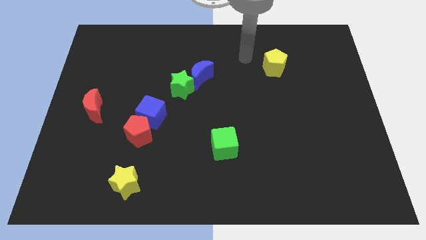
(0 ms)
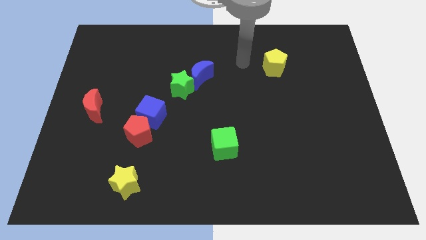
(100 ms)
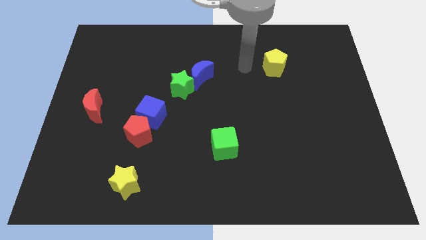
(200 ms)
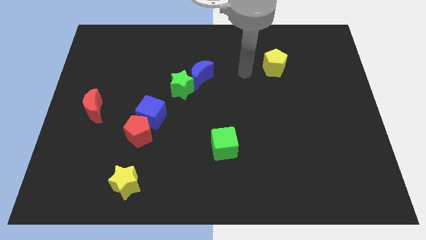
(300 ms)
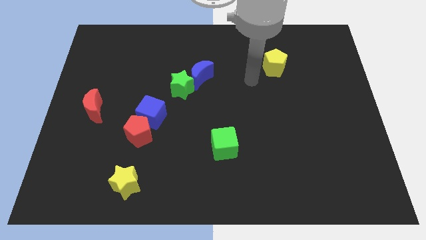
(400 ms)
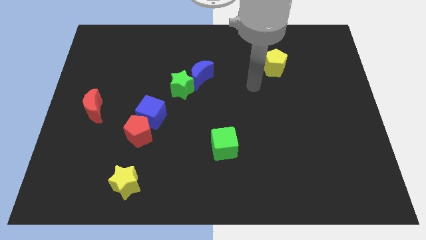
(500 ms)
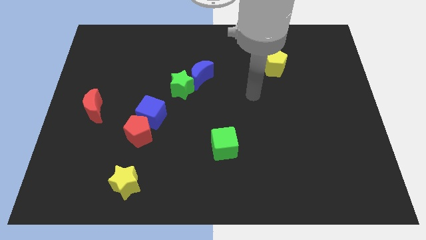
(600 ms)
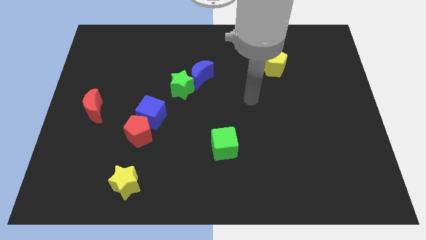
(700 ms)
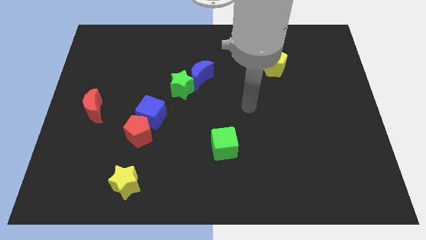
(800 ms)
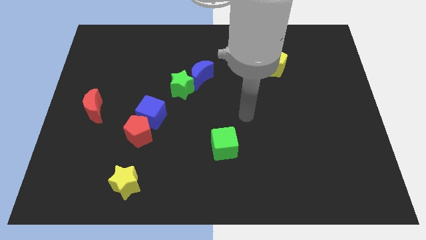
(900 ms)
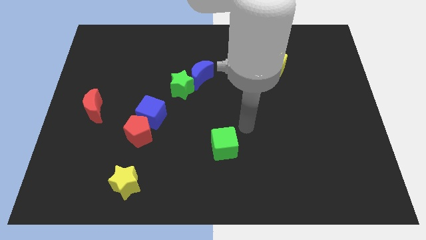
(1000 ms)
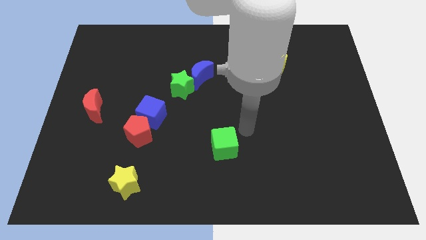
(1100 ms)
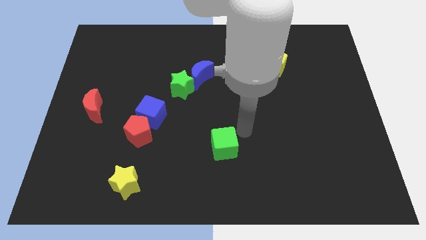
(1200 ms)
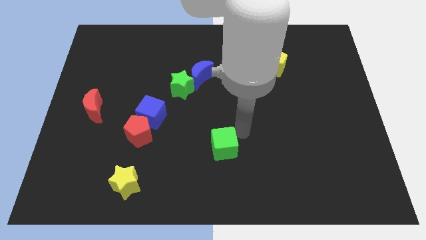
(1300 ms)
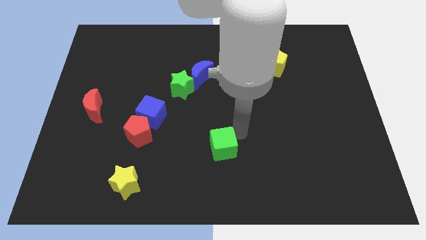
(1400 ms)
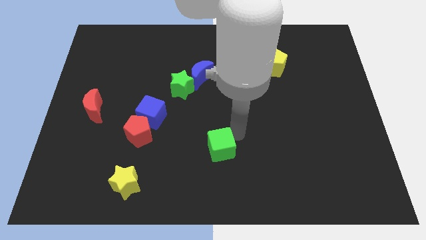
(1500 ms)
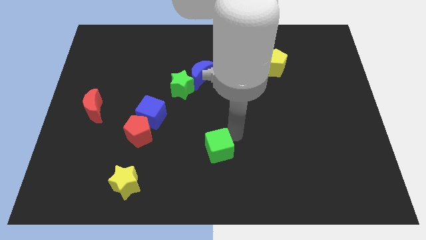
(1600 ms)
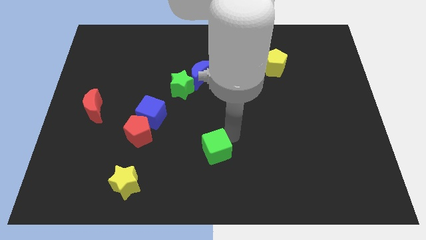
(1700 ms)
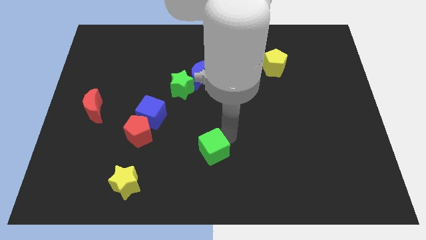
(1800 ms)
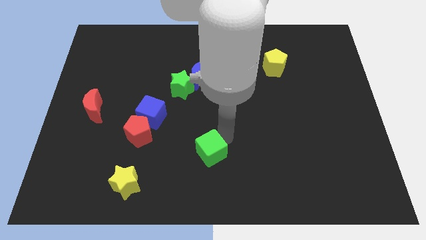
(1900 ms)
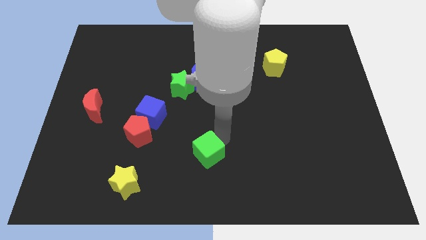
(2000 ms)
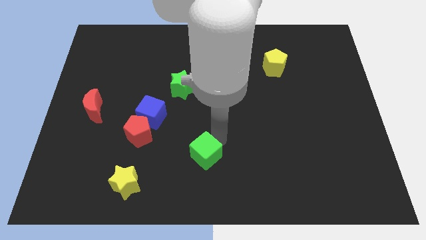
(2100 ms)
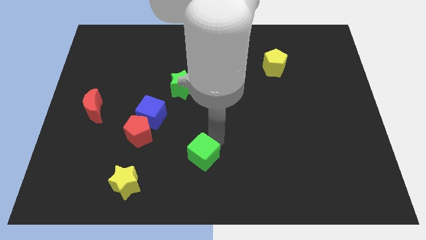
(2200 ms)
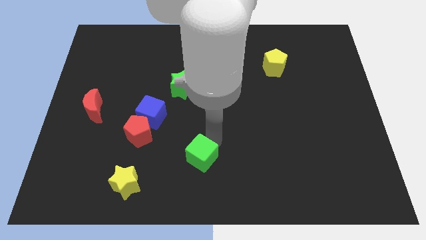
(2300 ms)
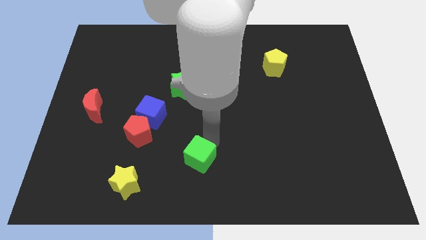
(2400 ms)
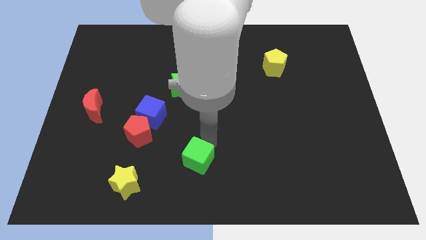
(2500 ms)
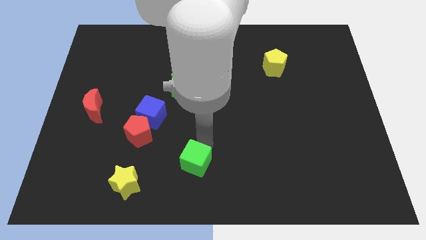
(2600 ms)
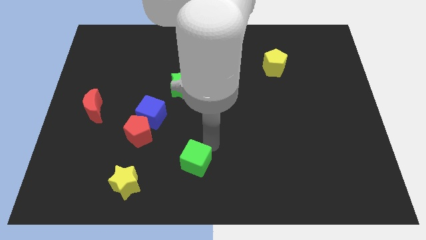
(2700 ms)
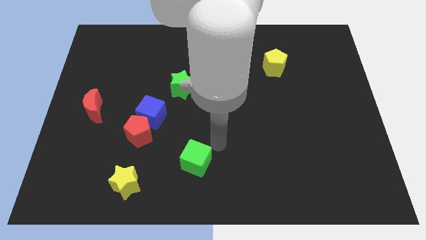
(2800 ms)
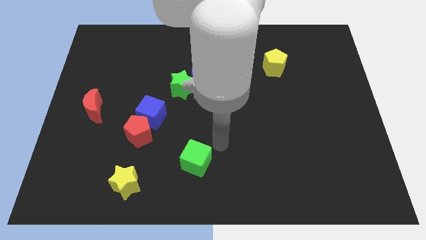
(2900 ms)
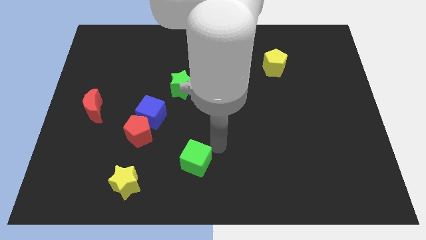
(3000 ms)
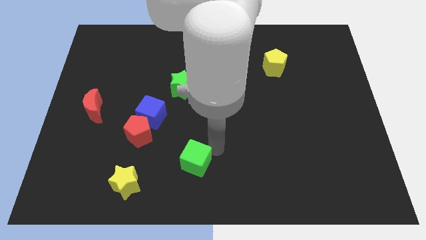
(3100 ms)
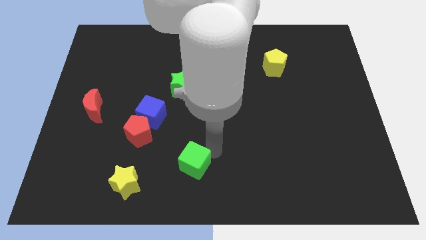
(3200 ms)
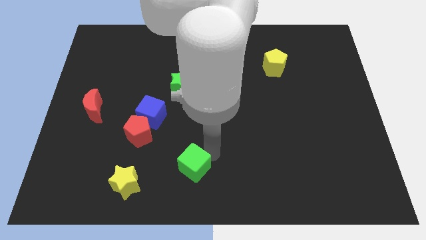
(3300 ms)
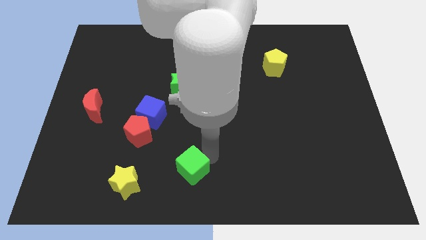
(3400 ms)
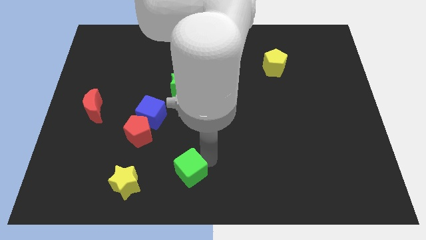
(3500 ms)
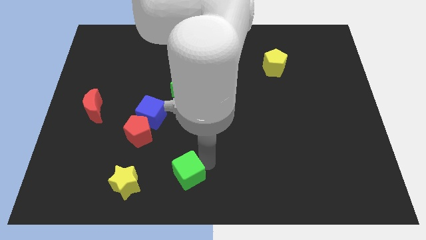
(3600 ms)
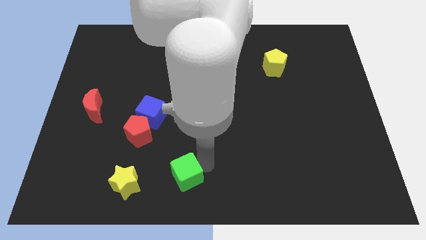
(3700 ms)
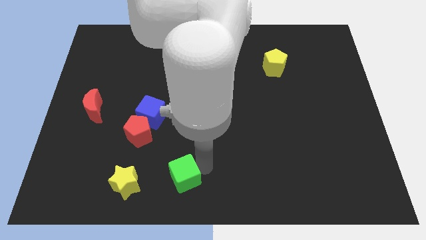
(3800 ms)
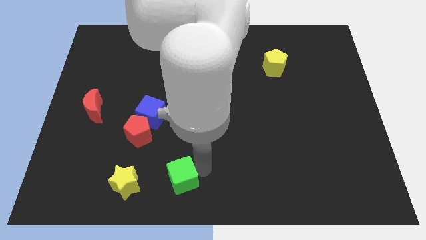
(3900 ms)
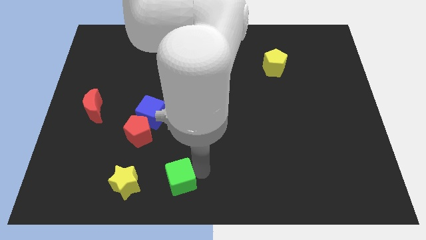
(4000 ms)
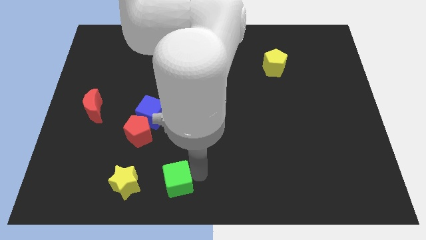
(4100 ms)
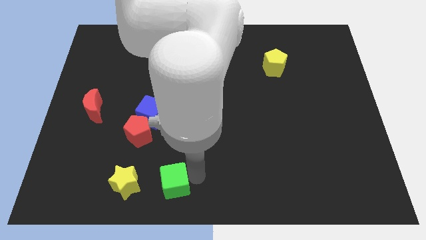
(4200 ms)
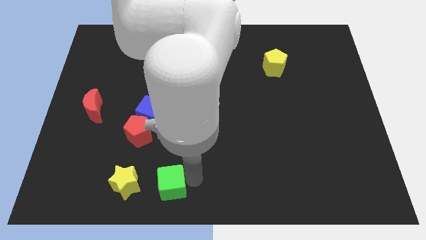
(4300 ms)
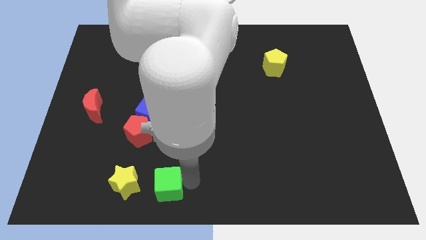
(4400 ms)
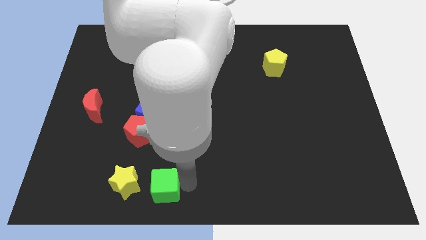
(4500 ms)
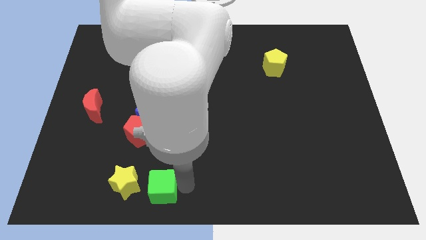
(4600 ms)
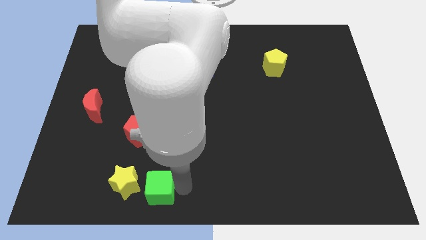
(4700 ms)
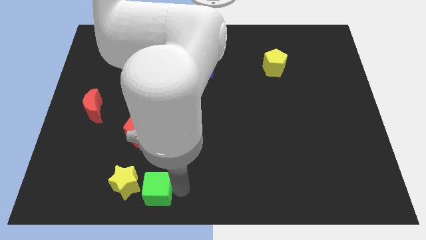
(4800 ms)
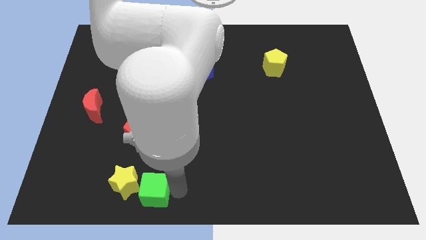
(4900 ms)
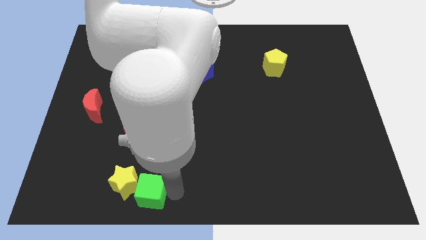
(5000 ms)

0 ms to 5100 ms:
move the green cube towards the yellow star

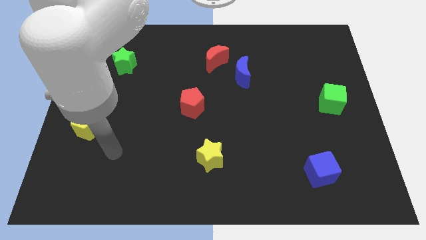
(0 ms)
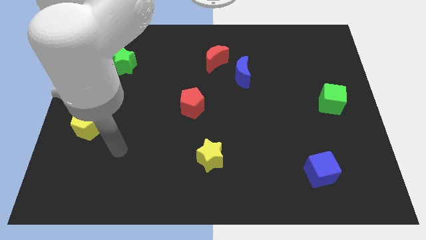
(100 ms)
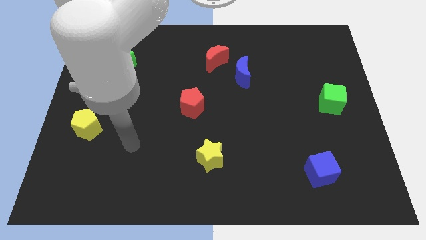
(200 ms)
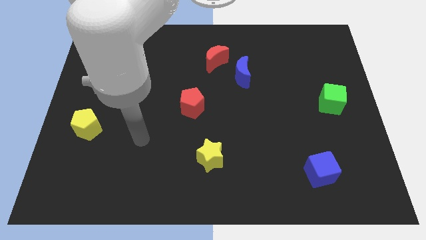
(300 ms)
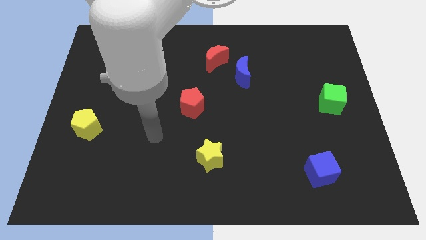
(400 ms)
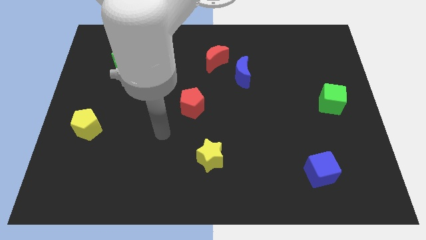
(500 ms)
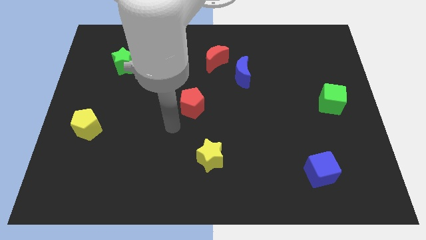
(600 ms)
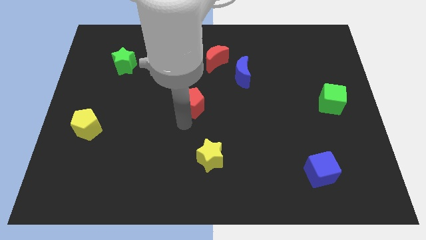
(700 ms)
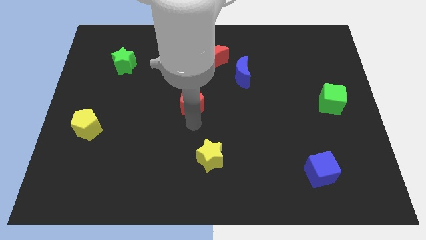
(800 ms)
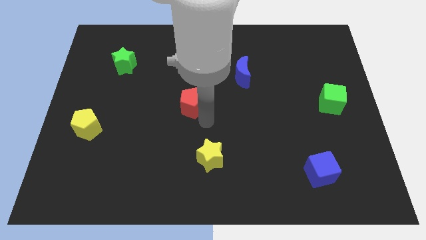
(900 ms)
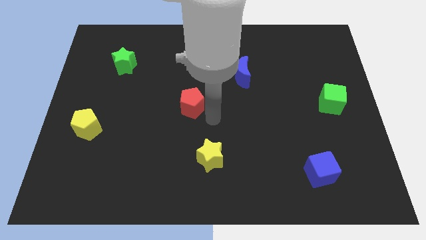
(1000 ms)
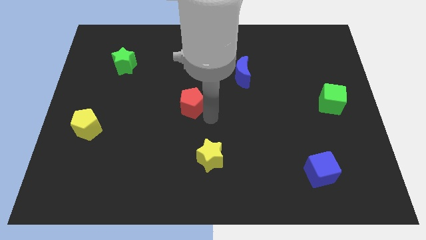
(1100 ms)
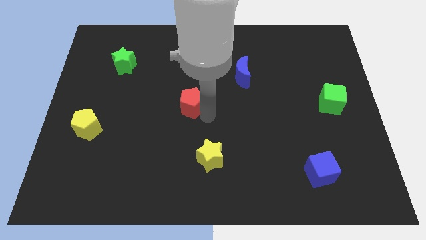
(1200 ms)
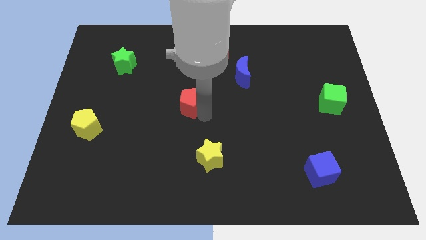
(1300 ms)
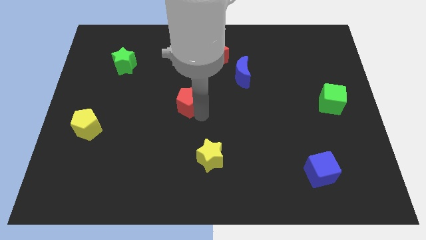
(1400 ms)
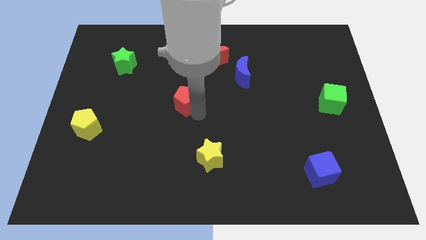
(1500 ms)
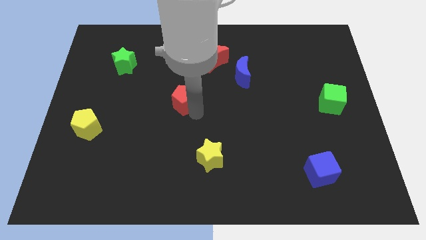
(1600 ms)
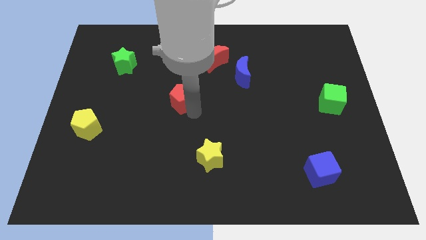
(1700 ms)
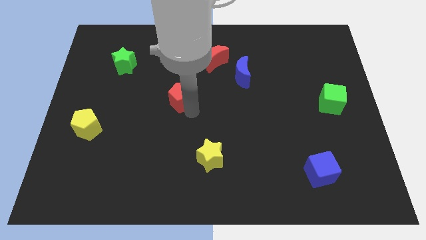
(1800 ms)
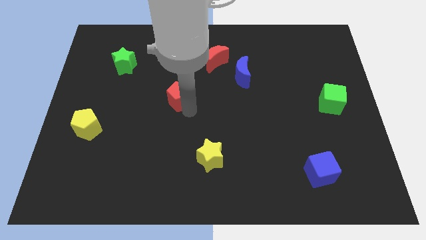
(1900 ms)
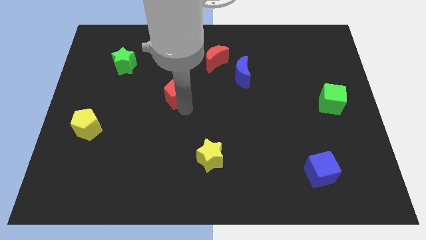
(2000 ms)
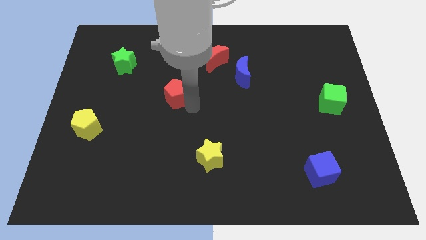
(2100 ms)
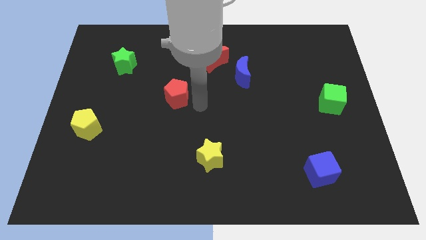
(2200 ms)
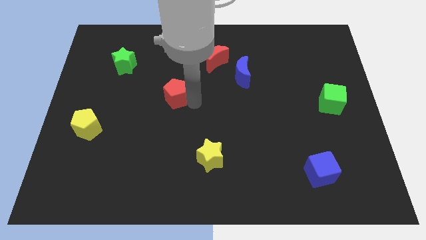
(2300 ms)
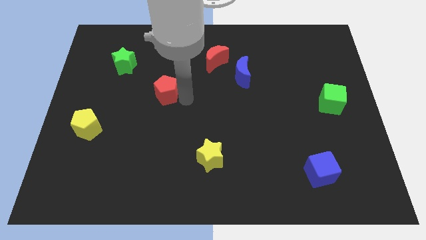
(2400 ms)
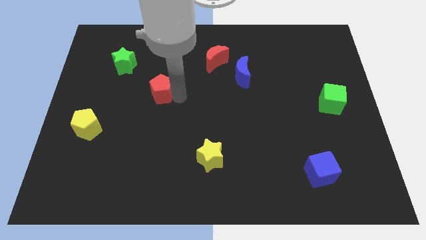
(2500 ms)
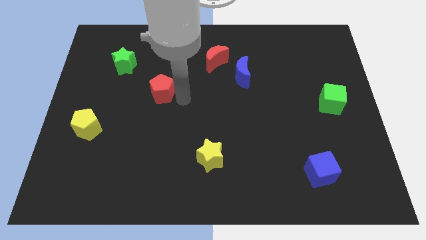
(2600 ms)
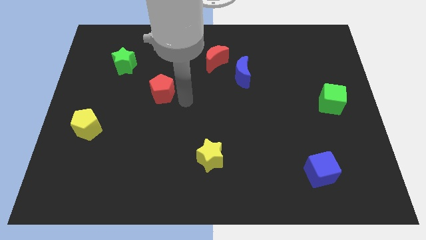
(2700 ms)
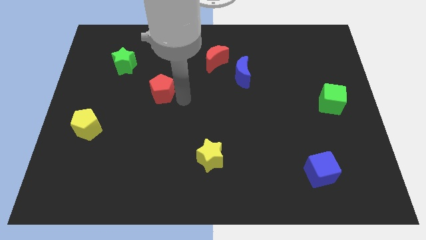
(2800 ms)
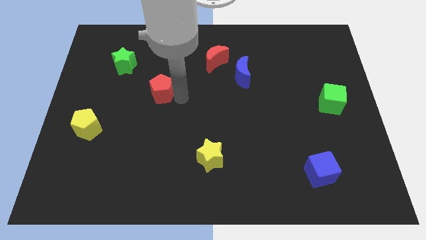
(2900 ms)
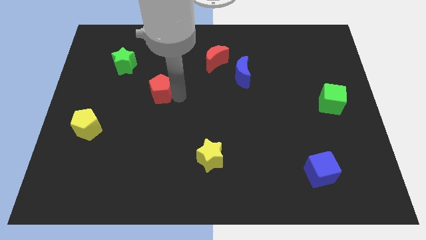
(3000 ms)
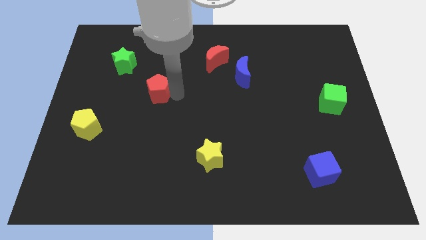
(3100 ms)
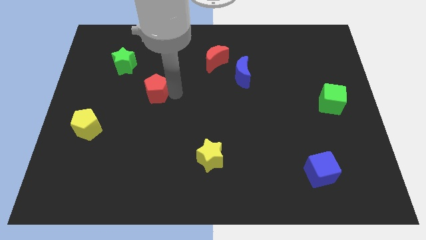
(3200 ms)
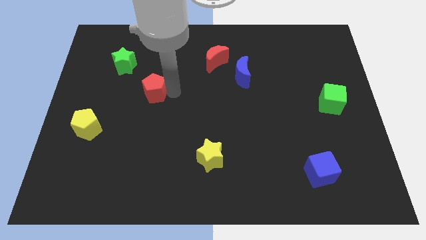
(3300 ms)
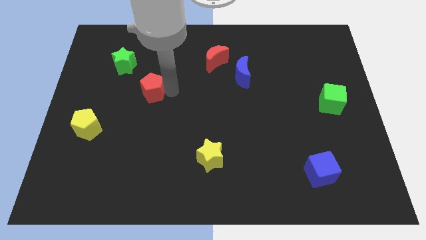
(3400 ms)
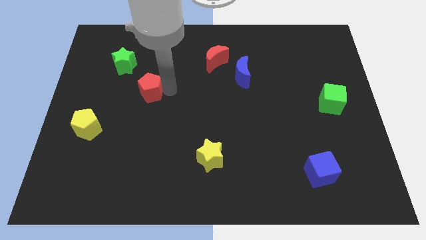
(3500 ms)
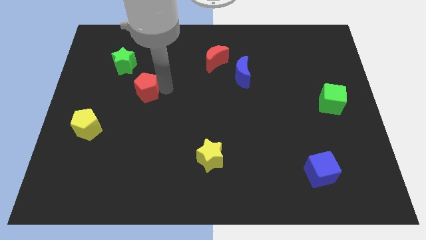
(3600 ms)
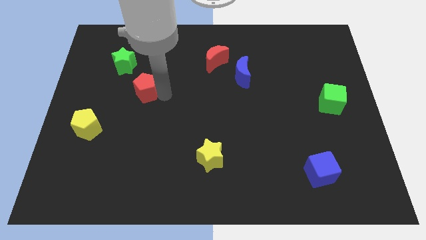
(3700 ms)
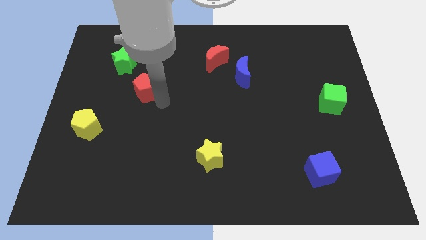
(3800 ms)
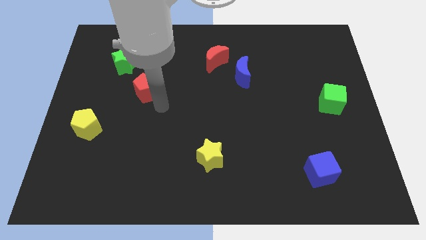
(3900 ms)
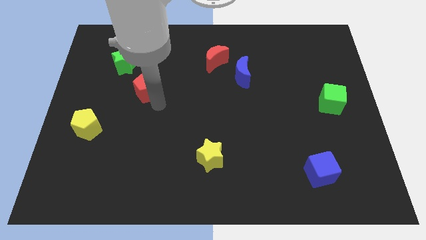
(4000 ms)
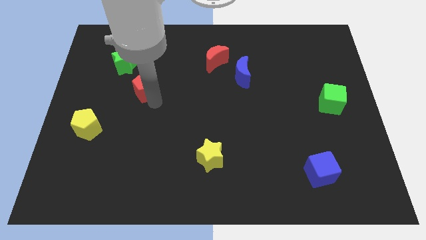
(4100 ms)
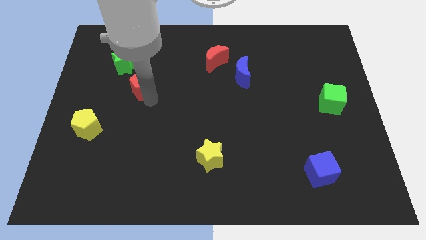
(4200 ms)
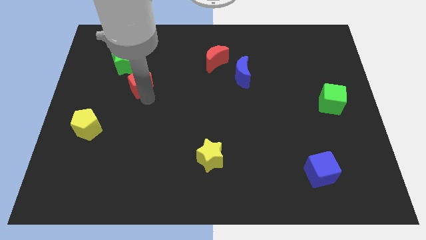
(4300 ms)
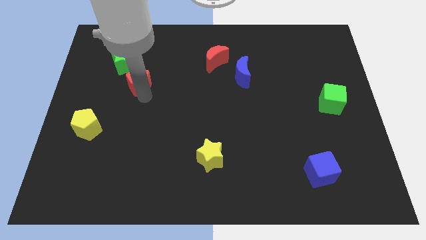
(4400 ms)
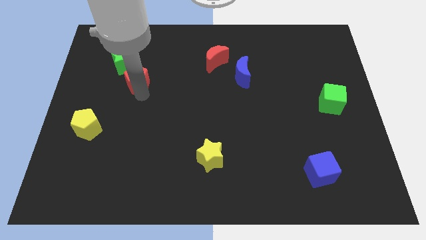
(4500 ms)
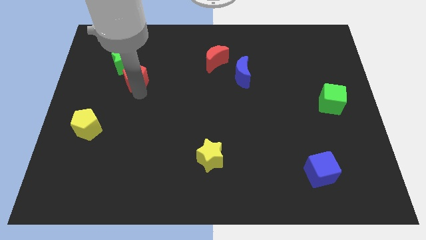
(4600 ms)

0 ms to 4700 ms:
push the red pentagon next to the green star
